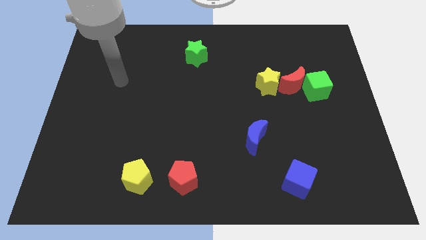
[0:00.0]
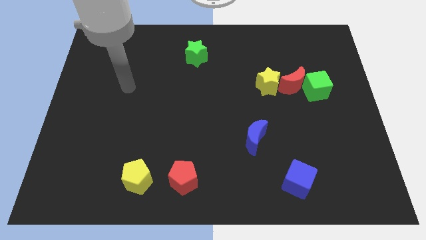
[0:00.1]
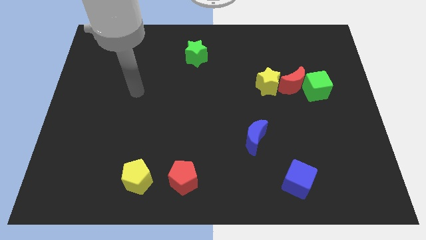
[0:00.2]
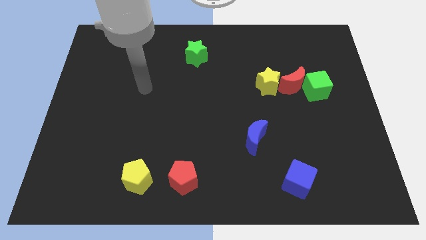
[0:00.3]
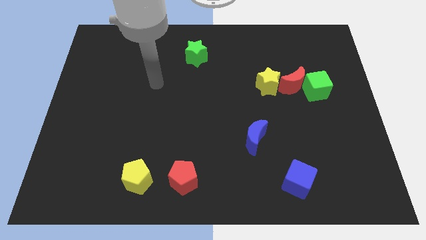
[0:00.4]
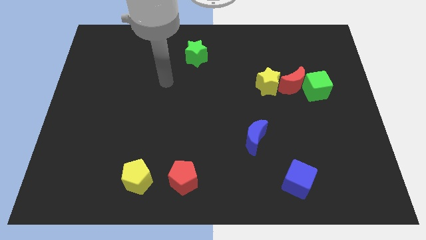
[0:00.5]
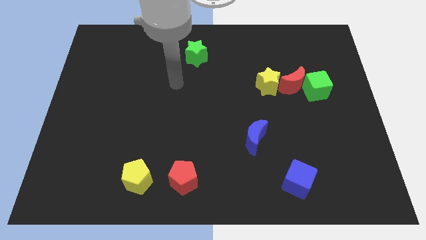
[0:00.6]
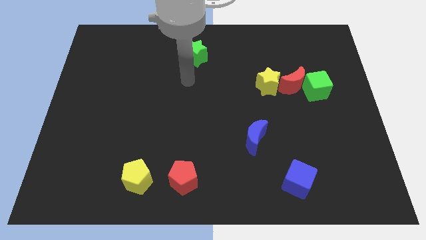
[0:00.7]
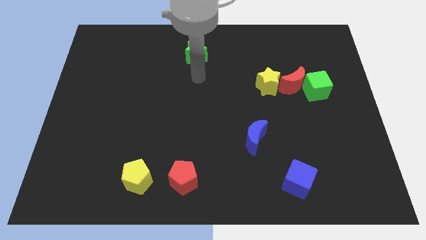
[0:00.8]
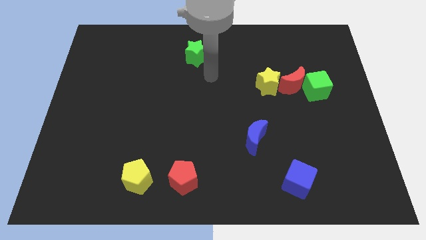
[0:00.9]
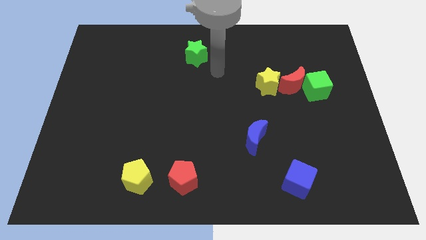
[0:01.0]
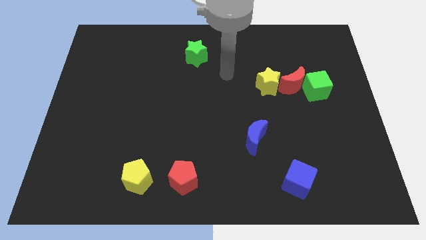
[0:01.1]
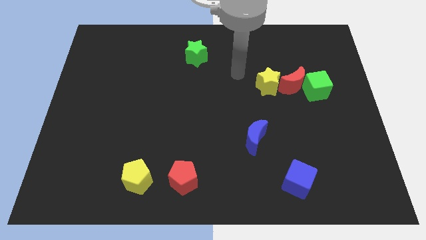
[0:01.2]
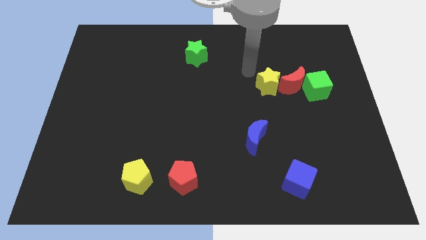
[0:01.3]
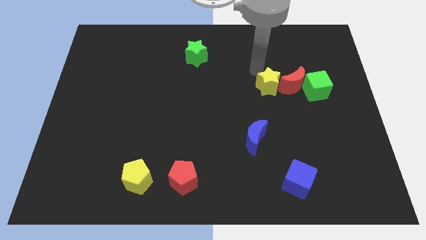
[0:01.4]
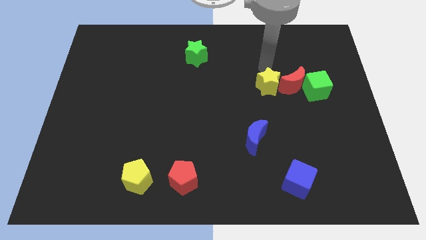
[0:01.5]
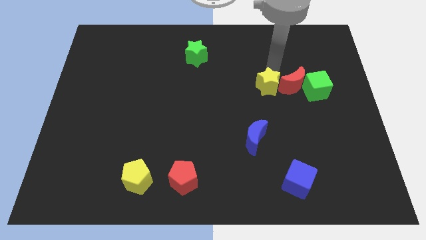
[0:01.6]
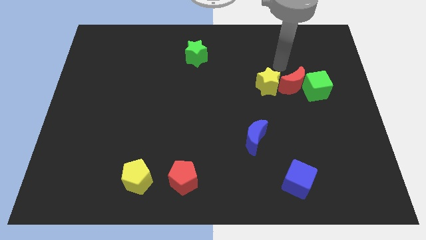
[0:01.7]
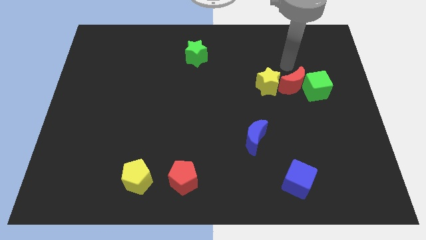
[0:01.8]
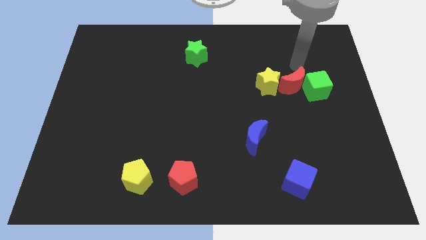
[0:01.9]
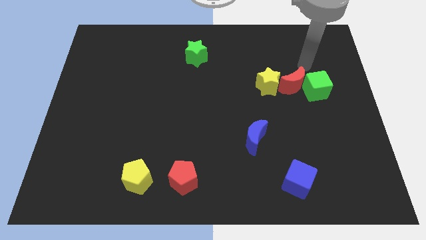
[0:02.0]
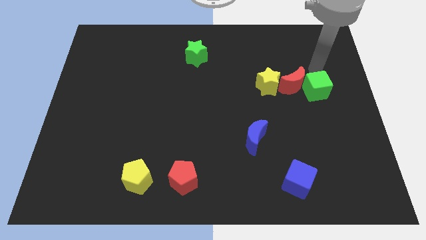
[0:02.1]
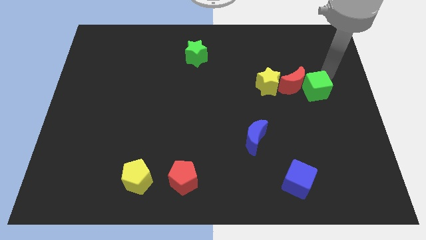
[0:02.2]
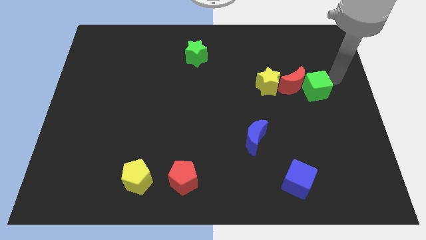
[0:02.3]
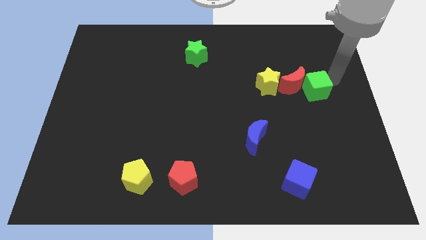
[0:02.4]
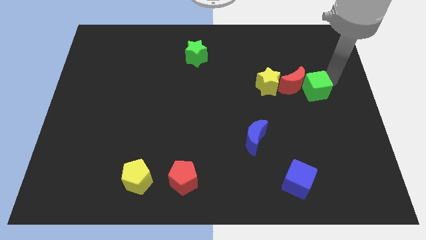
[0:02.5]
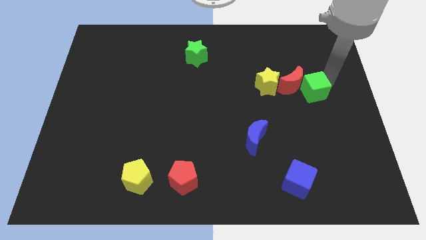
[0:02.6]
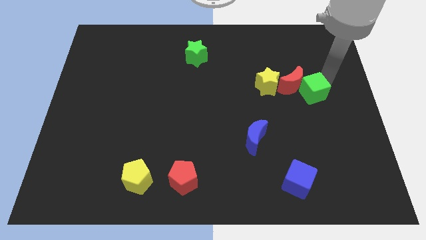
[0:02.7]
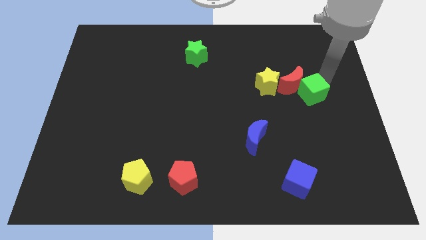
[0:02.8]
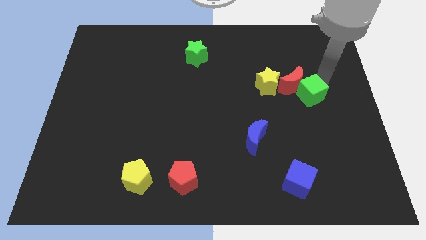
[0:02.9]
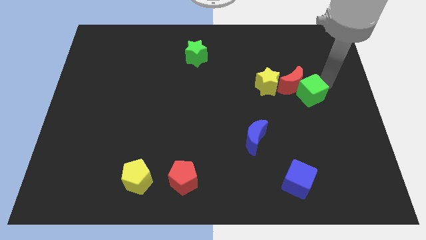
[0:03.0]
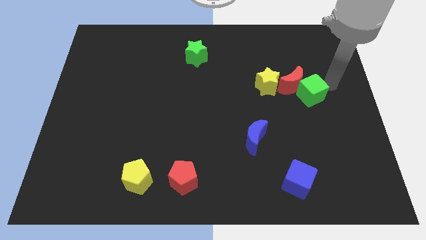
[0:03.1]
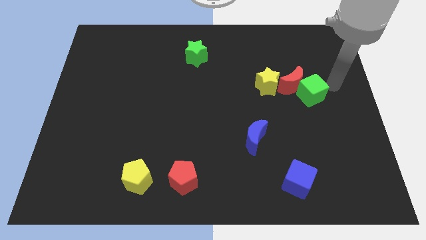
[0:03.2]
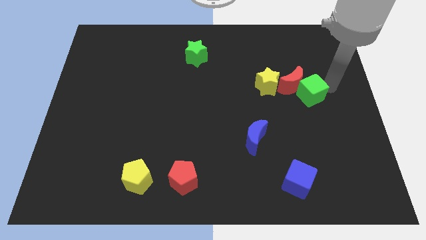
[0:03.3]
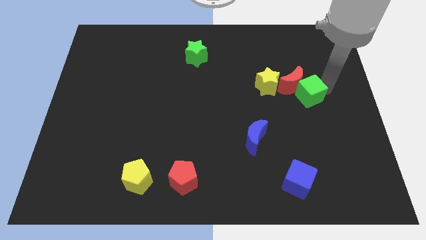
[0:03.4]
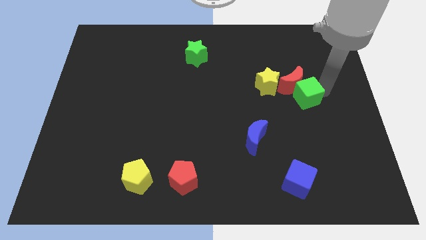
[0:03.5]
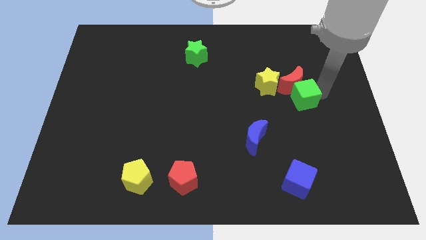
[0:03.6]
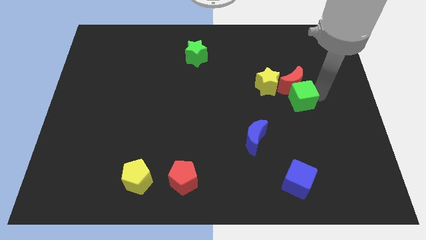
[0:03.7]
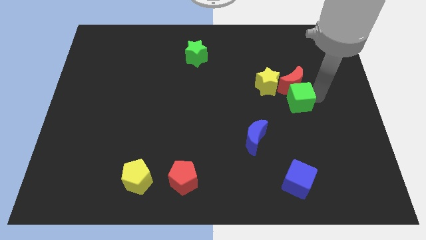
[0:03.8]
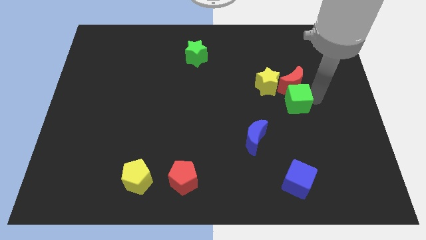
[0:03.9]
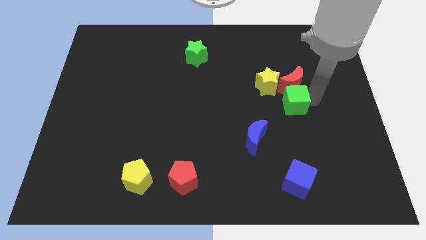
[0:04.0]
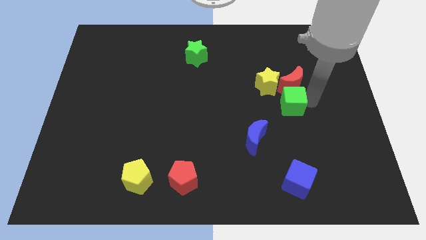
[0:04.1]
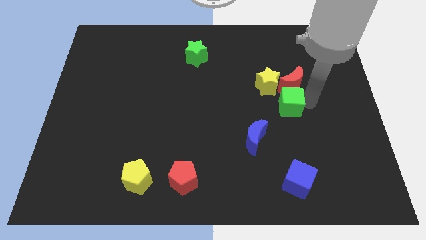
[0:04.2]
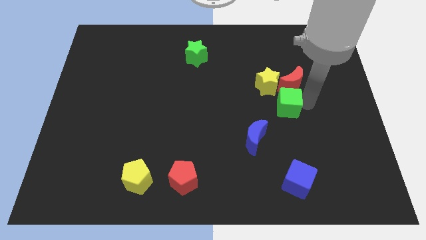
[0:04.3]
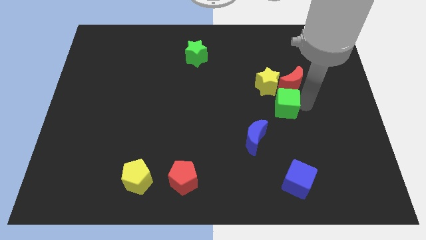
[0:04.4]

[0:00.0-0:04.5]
slightly slide the green cube left

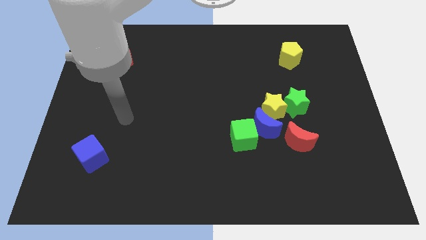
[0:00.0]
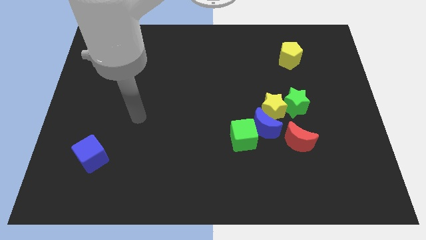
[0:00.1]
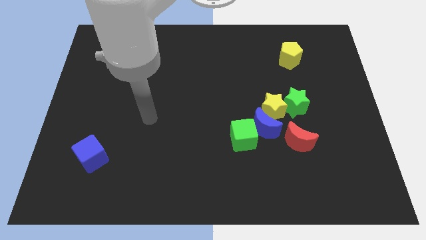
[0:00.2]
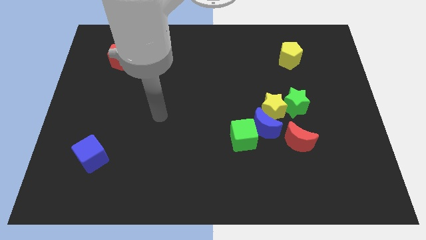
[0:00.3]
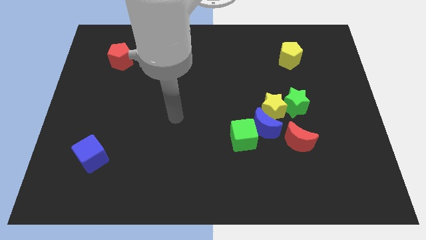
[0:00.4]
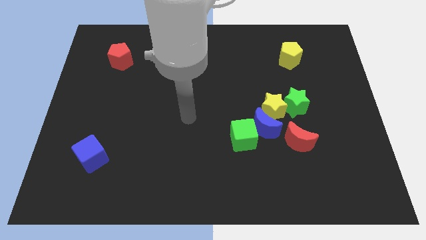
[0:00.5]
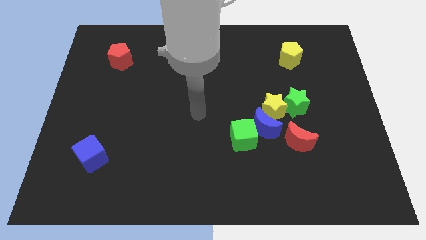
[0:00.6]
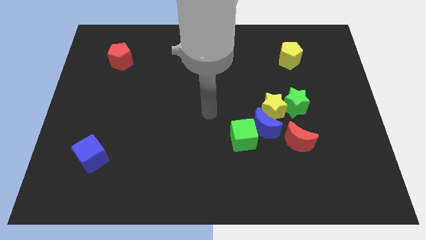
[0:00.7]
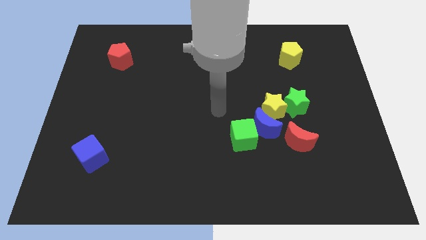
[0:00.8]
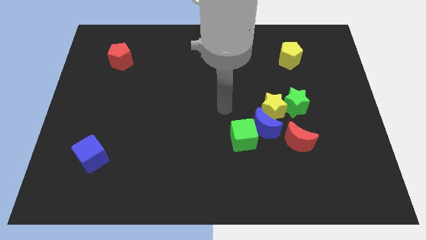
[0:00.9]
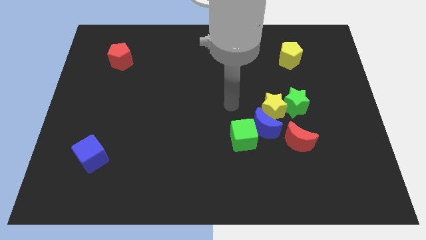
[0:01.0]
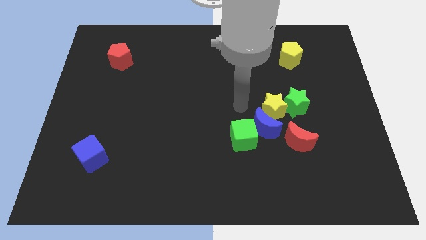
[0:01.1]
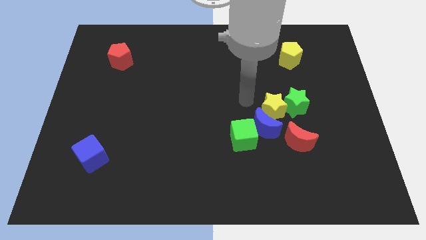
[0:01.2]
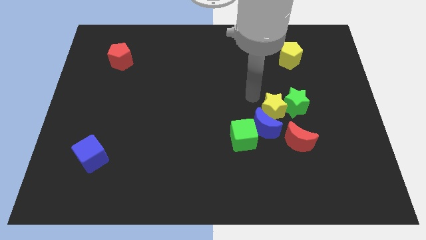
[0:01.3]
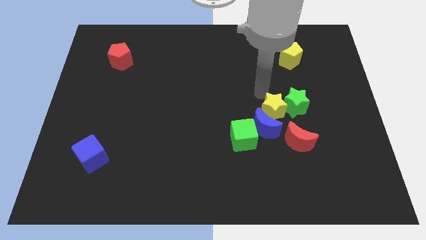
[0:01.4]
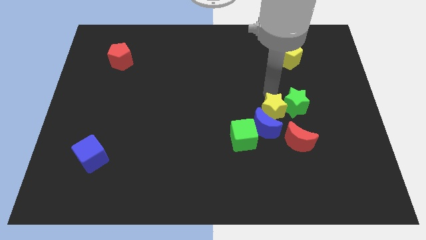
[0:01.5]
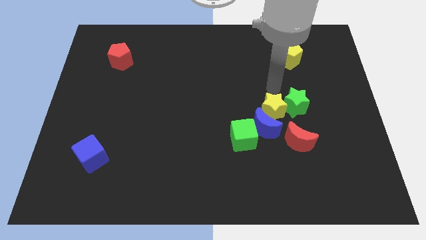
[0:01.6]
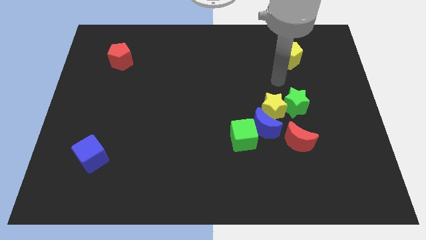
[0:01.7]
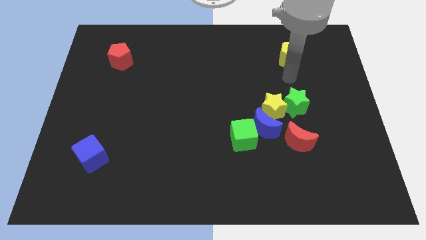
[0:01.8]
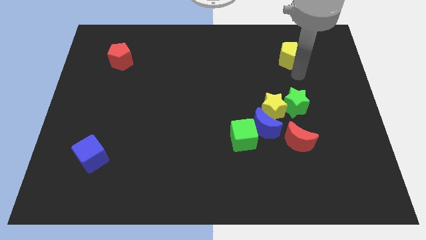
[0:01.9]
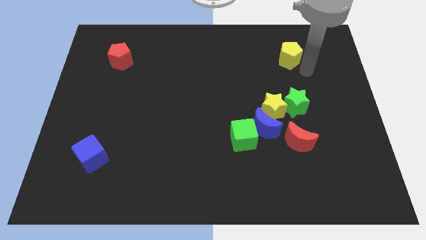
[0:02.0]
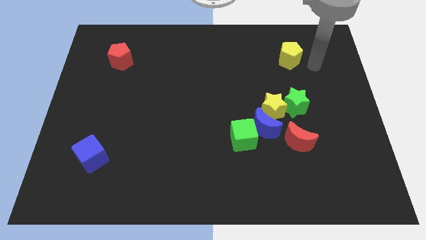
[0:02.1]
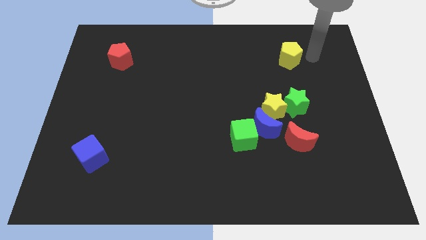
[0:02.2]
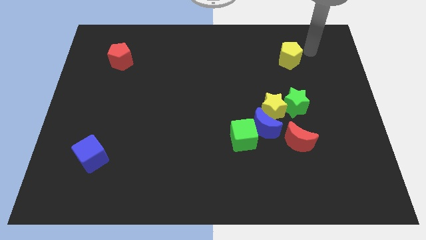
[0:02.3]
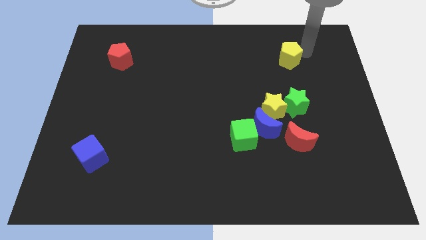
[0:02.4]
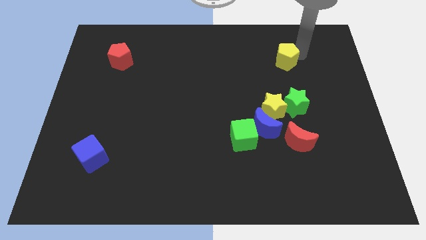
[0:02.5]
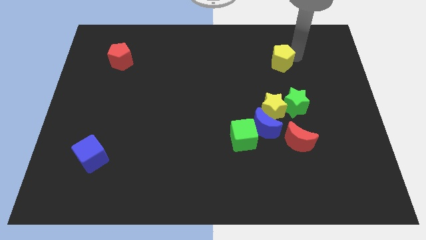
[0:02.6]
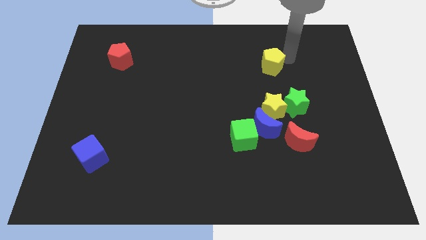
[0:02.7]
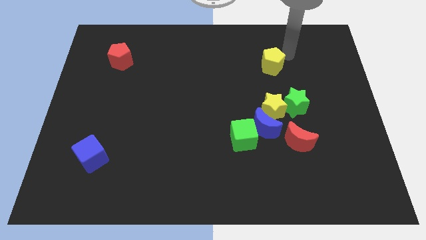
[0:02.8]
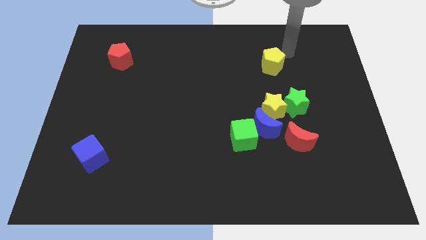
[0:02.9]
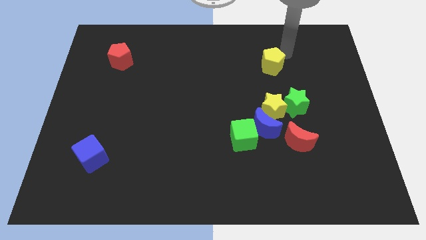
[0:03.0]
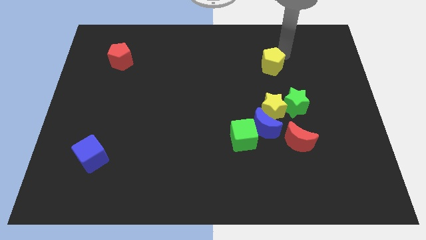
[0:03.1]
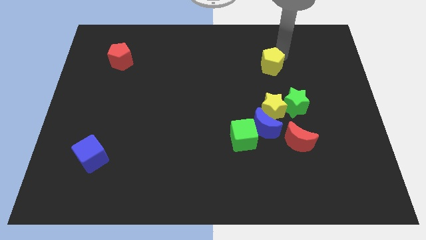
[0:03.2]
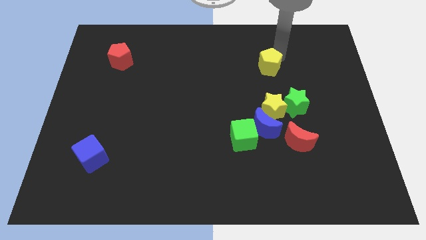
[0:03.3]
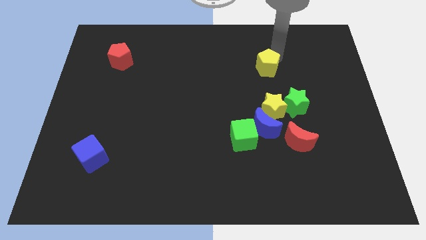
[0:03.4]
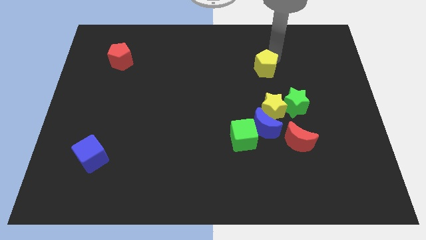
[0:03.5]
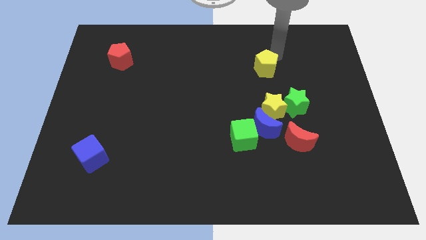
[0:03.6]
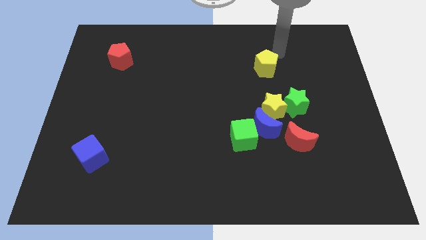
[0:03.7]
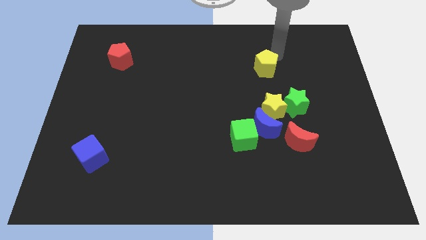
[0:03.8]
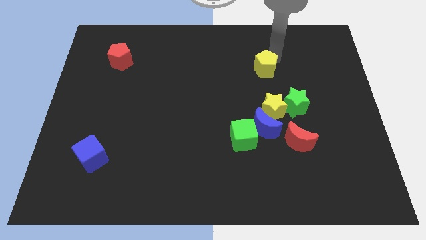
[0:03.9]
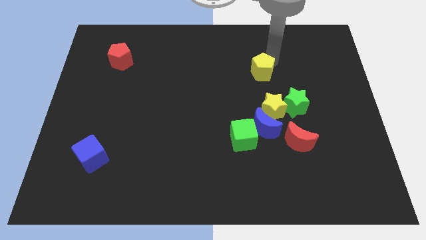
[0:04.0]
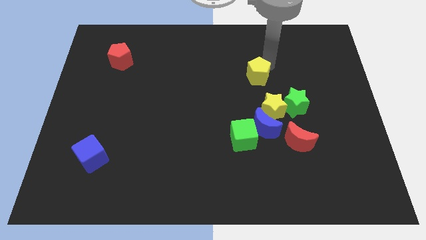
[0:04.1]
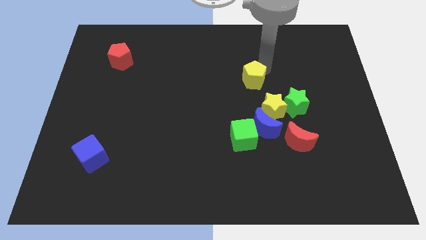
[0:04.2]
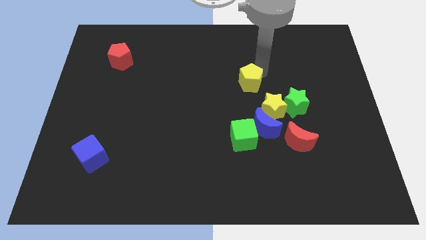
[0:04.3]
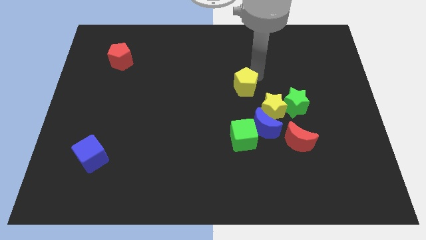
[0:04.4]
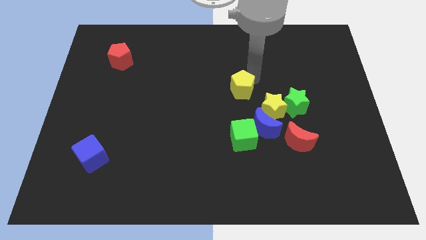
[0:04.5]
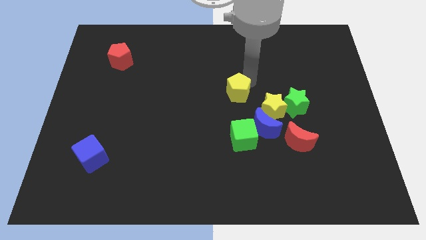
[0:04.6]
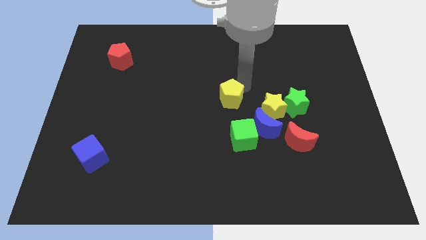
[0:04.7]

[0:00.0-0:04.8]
push the yellow pentagon down and to the left
